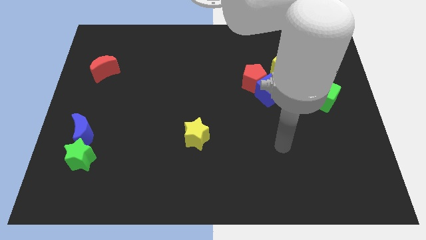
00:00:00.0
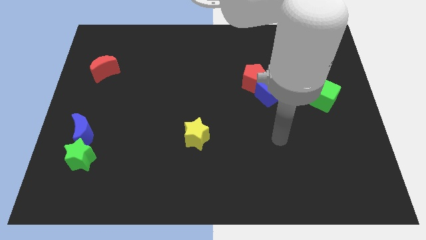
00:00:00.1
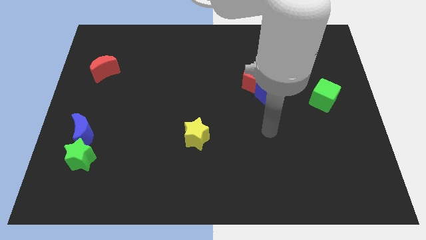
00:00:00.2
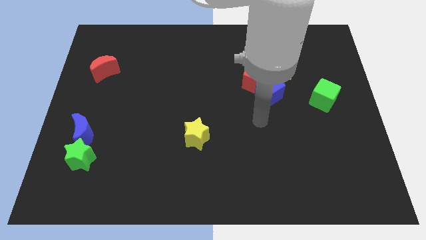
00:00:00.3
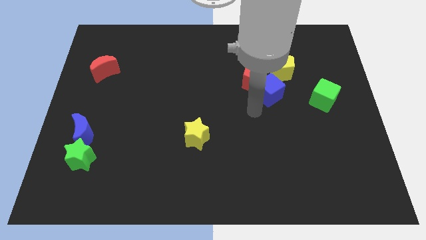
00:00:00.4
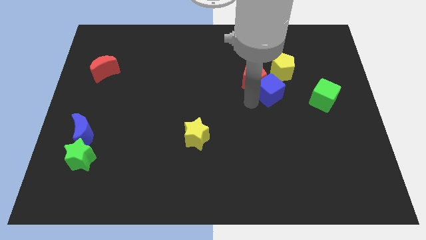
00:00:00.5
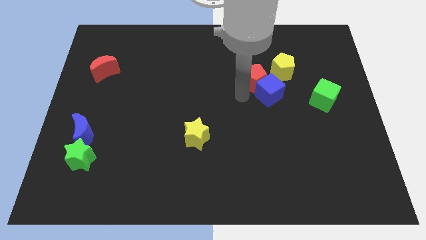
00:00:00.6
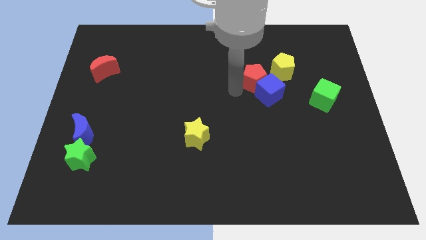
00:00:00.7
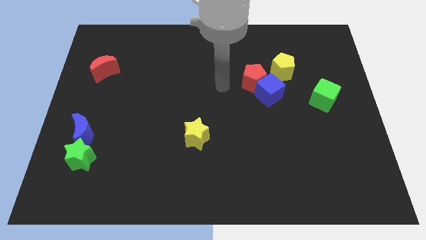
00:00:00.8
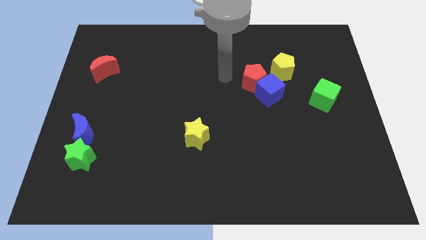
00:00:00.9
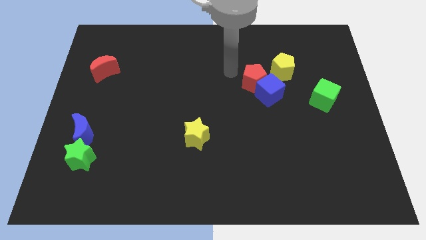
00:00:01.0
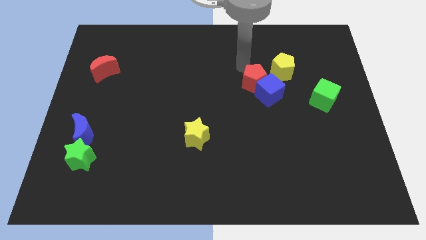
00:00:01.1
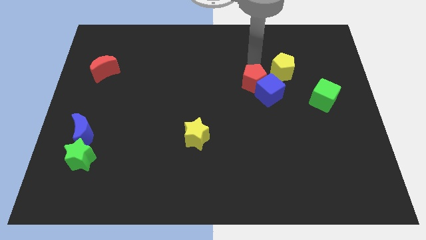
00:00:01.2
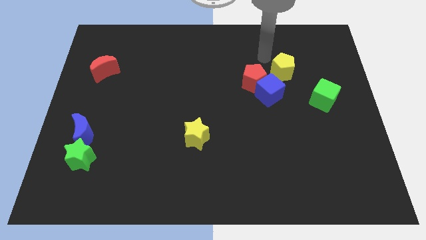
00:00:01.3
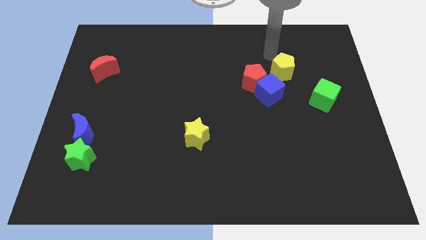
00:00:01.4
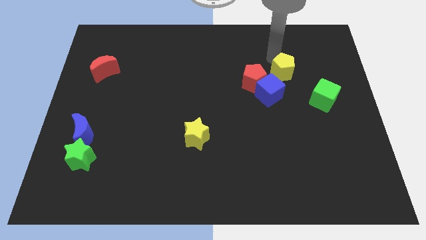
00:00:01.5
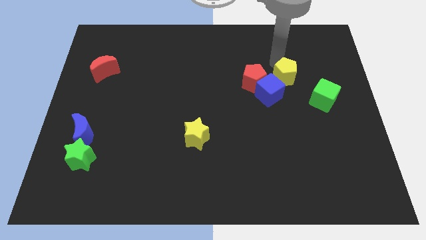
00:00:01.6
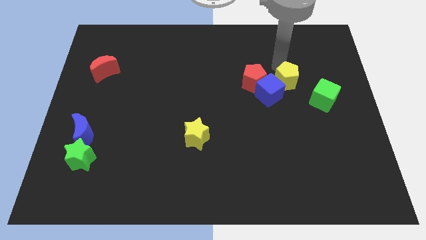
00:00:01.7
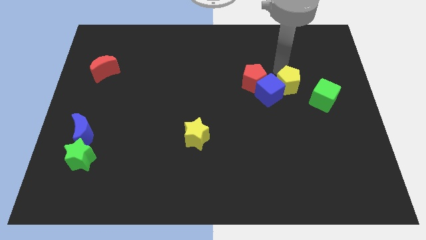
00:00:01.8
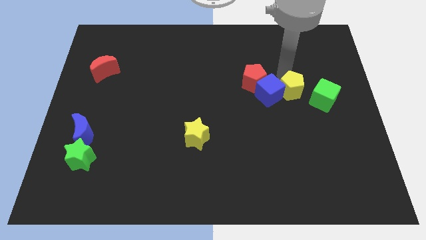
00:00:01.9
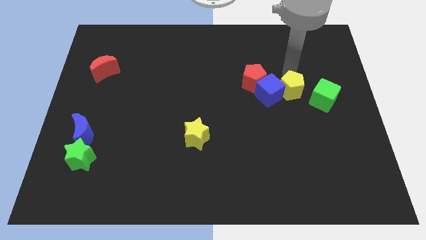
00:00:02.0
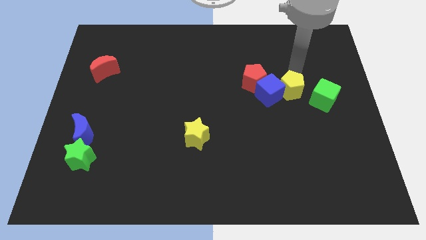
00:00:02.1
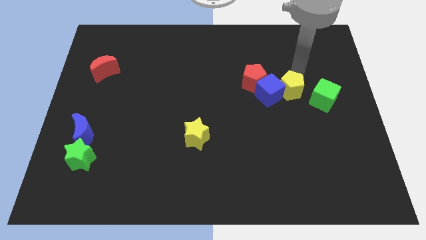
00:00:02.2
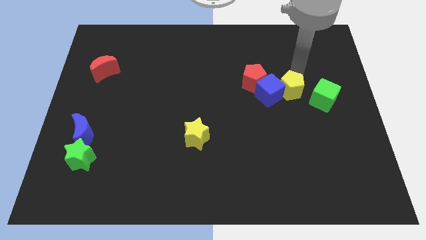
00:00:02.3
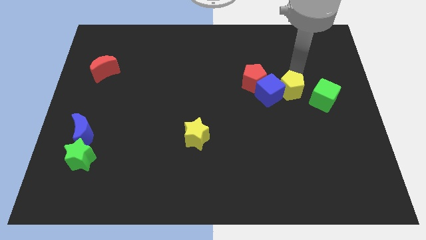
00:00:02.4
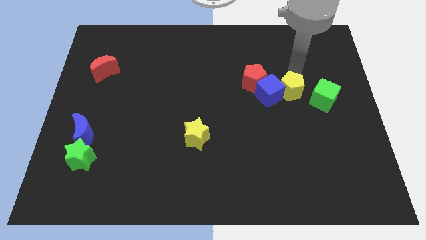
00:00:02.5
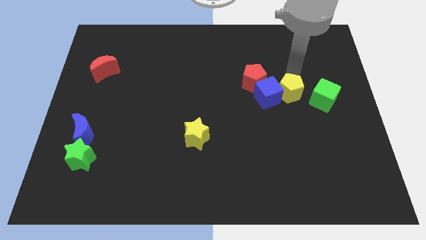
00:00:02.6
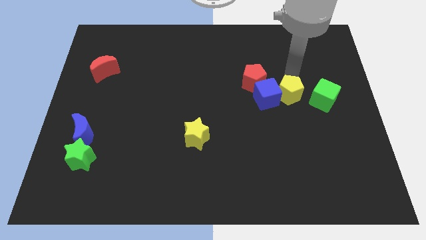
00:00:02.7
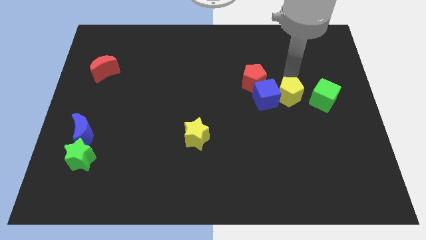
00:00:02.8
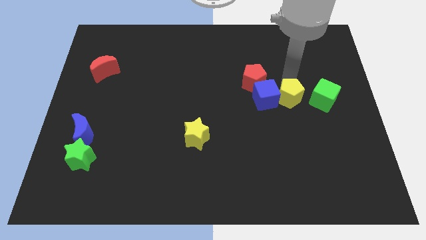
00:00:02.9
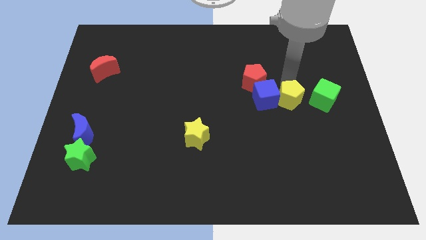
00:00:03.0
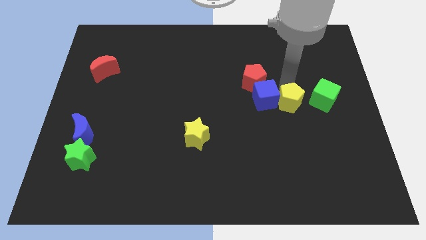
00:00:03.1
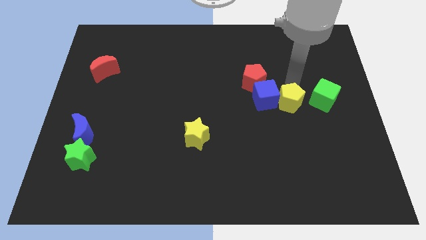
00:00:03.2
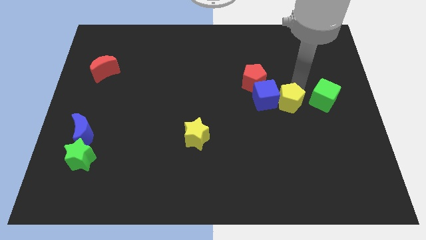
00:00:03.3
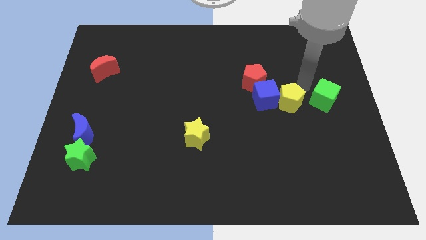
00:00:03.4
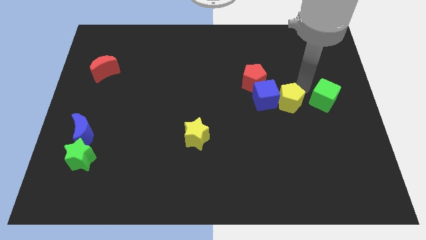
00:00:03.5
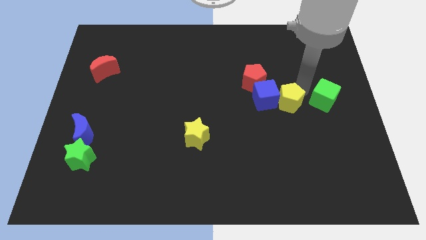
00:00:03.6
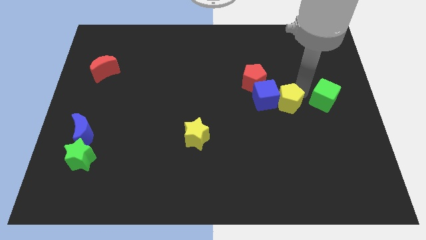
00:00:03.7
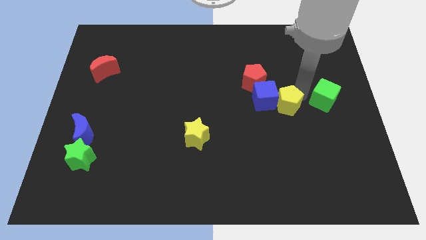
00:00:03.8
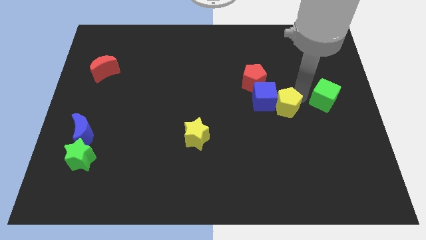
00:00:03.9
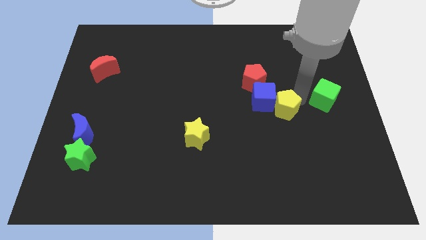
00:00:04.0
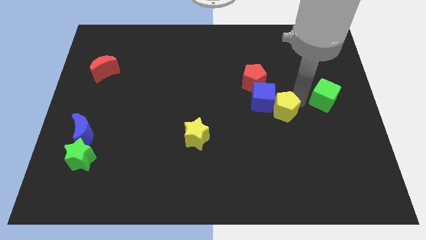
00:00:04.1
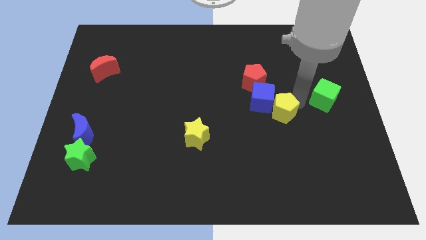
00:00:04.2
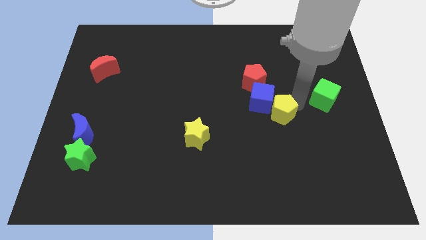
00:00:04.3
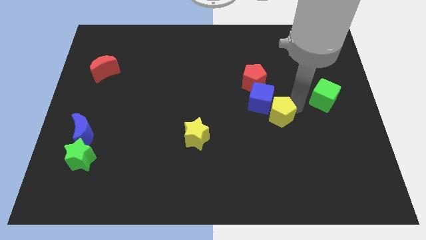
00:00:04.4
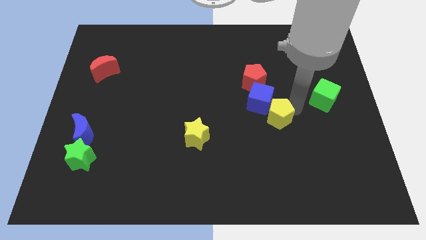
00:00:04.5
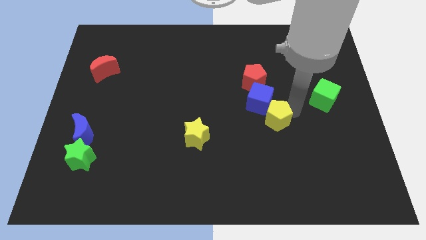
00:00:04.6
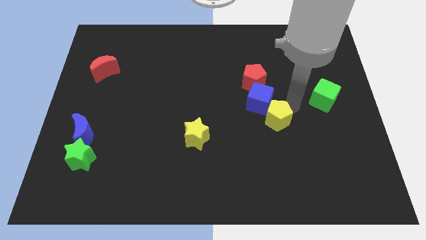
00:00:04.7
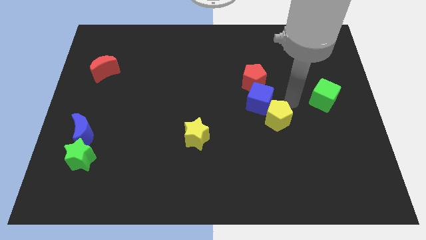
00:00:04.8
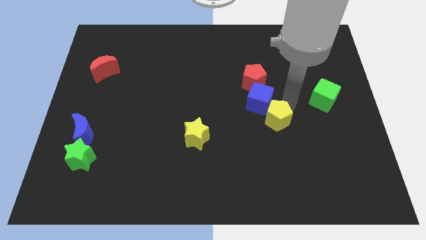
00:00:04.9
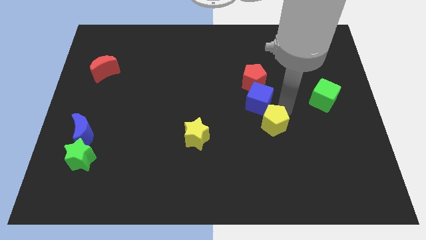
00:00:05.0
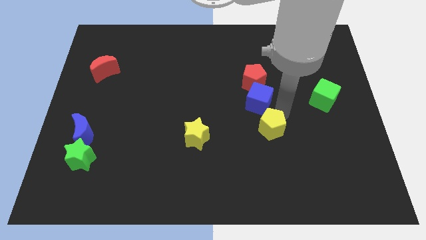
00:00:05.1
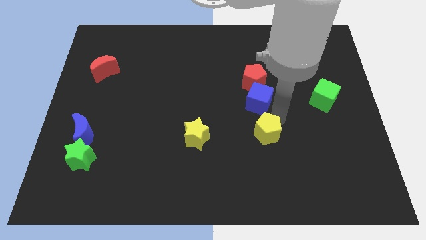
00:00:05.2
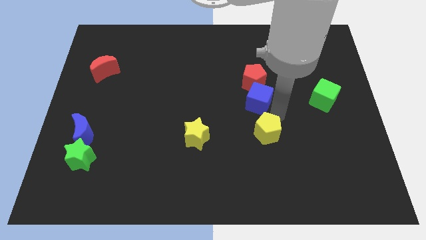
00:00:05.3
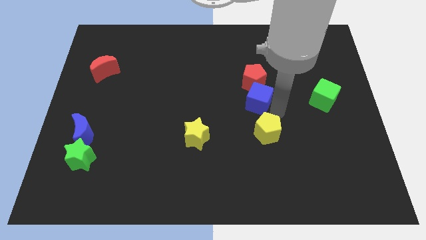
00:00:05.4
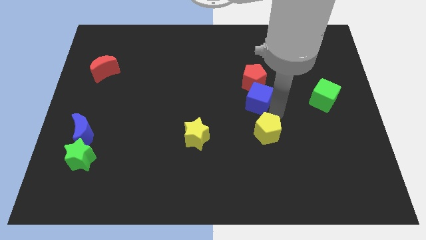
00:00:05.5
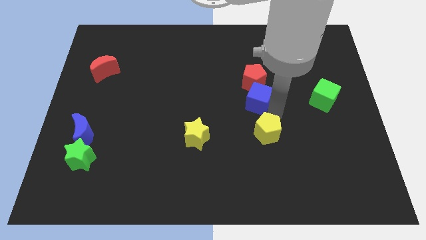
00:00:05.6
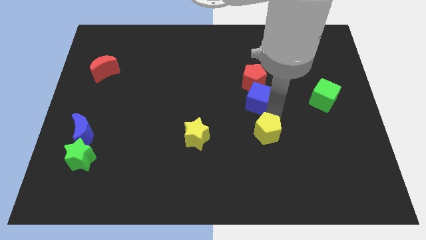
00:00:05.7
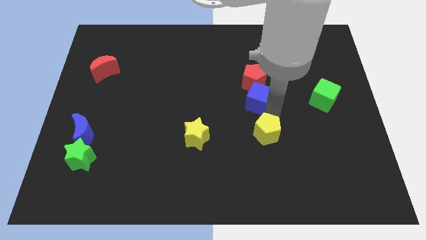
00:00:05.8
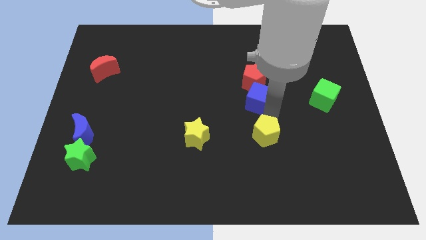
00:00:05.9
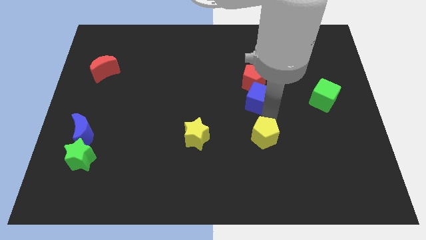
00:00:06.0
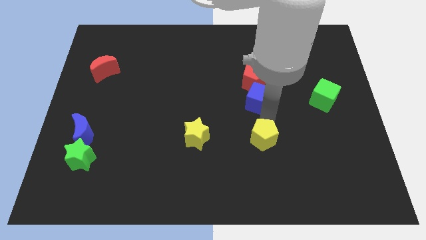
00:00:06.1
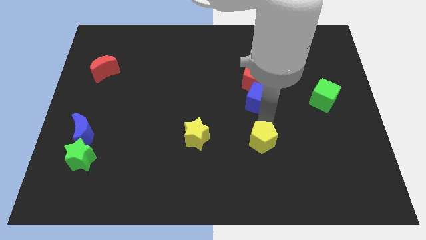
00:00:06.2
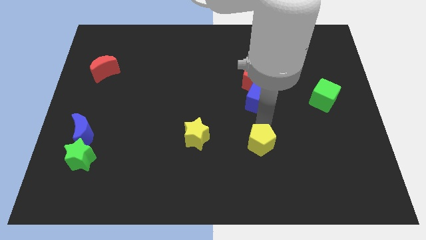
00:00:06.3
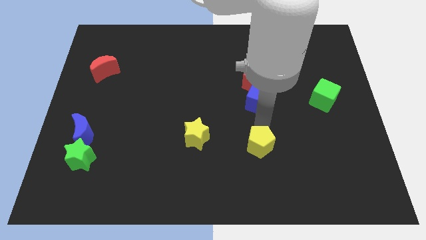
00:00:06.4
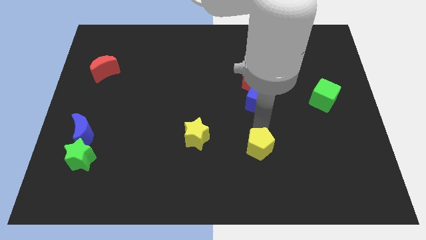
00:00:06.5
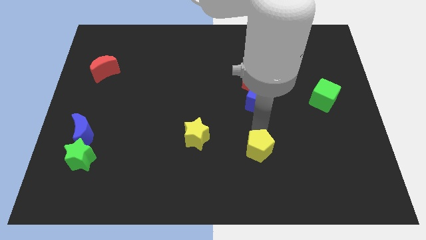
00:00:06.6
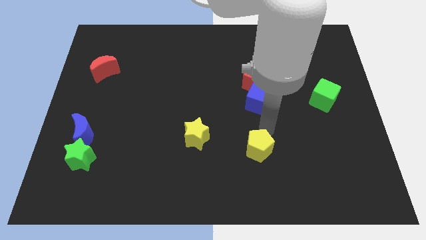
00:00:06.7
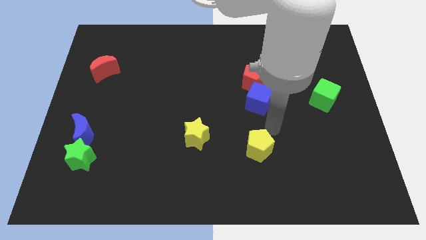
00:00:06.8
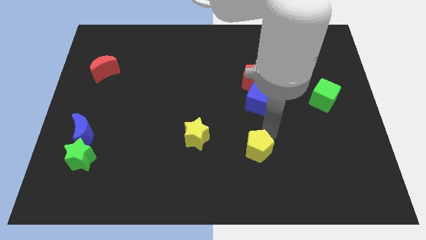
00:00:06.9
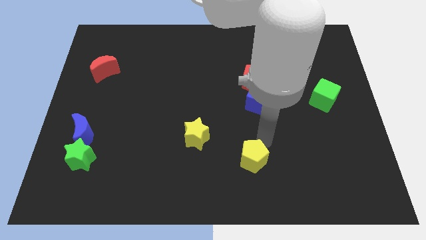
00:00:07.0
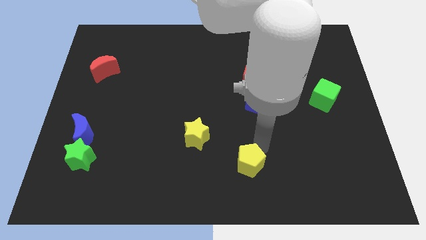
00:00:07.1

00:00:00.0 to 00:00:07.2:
move the yellow pentagon to the bottom
